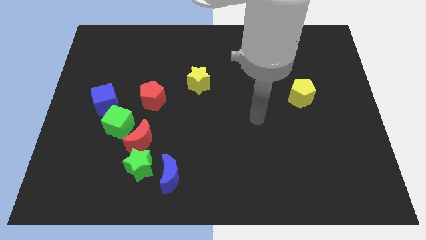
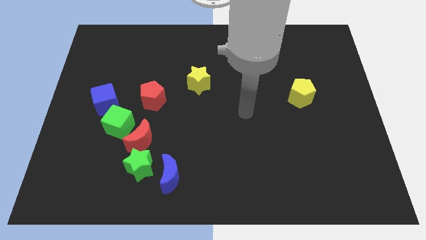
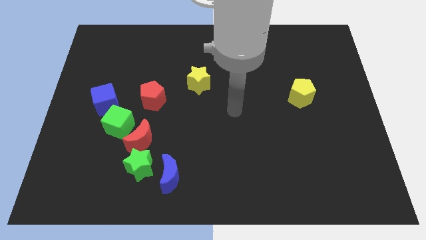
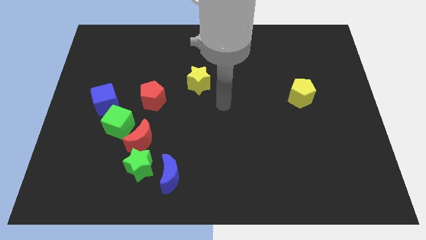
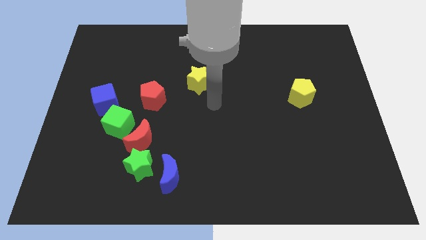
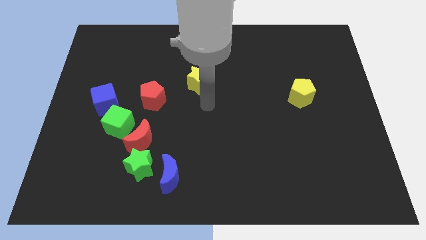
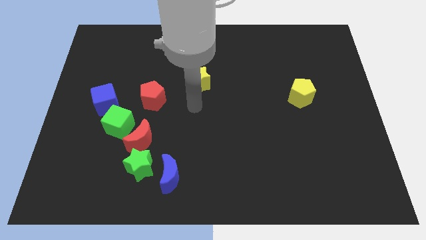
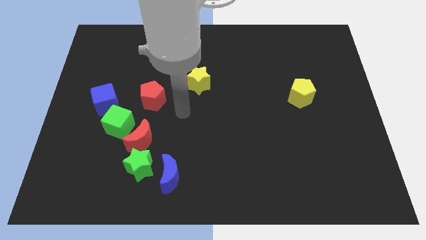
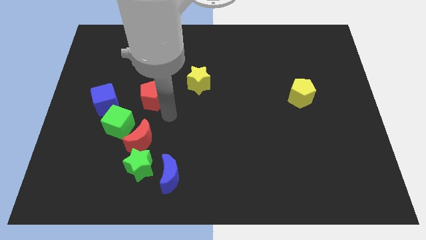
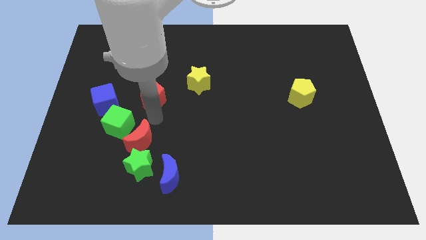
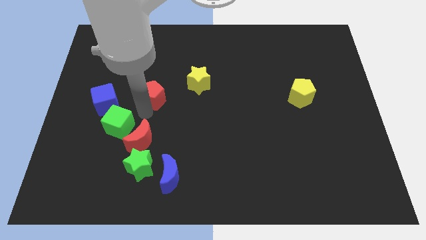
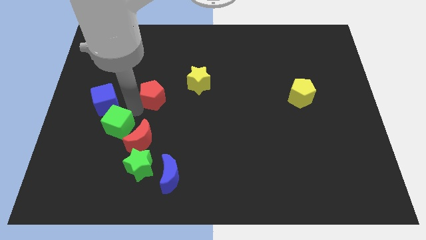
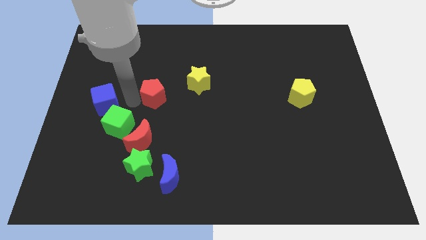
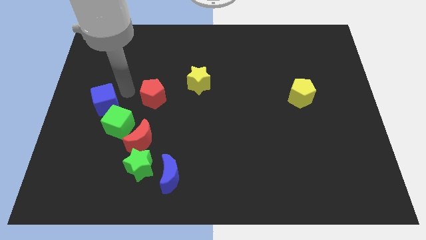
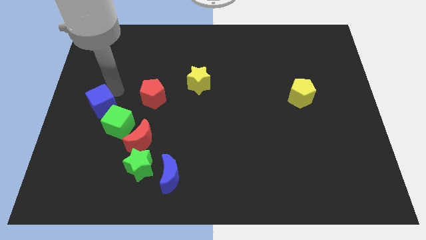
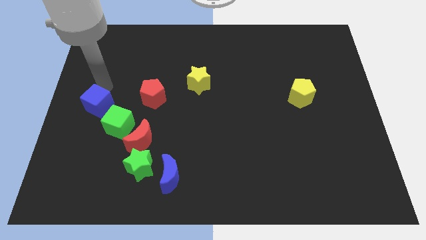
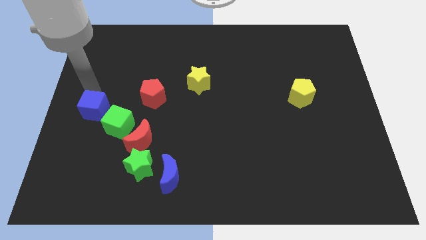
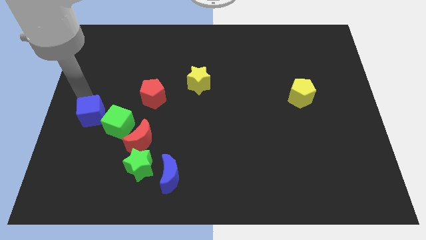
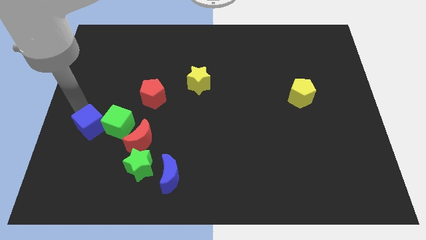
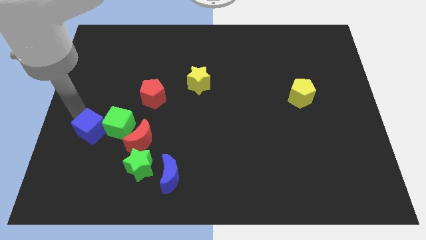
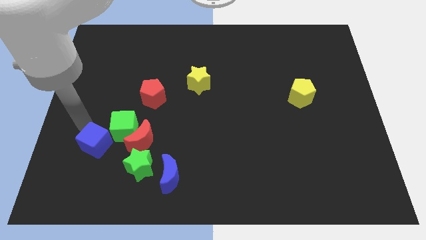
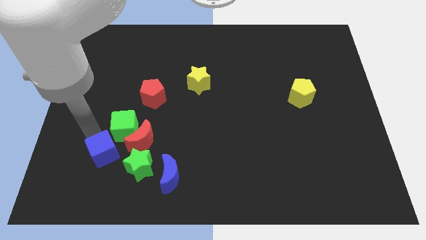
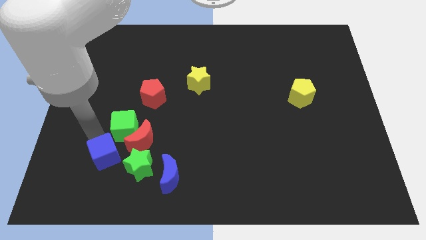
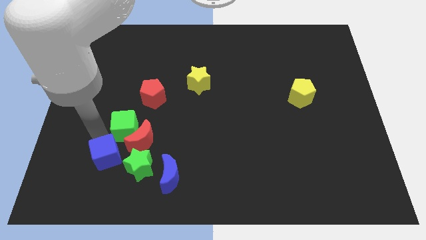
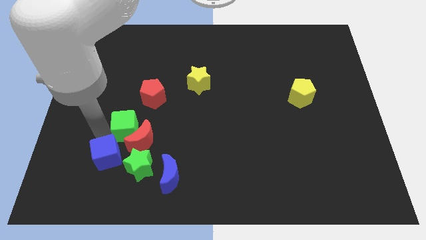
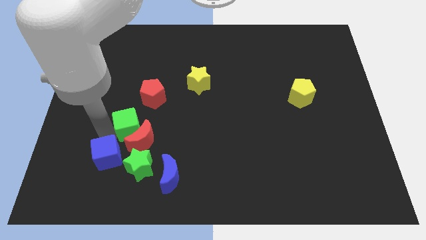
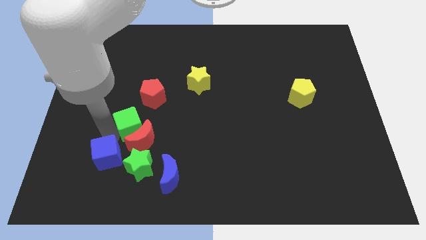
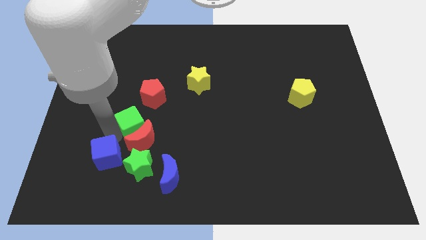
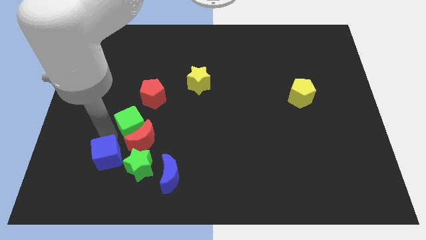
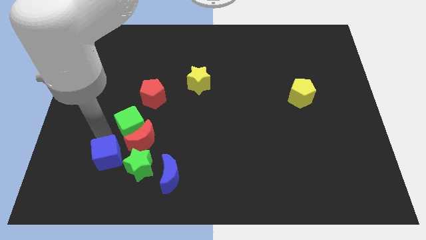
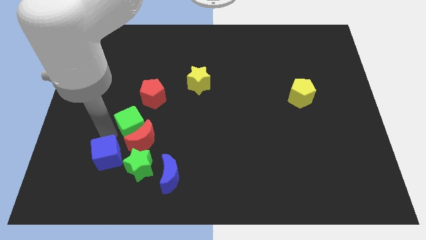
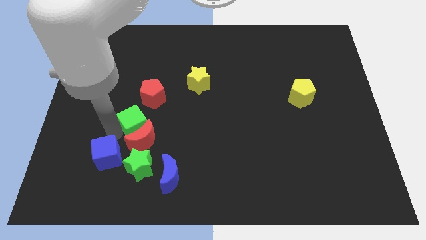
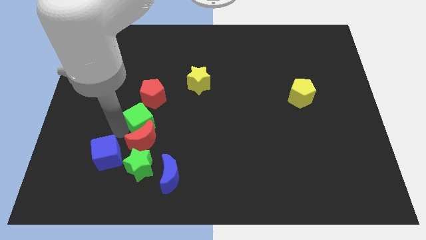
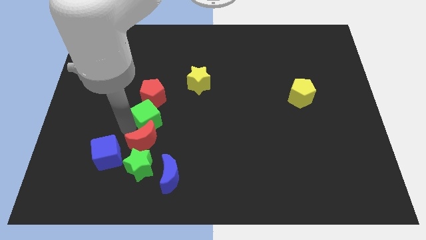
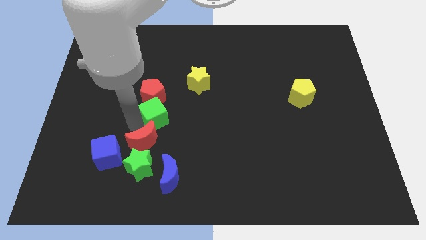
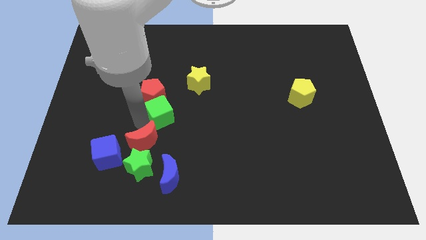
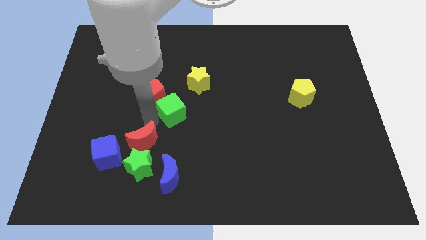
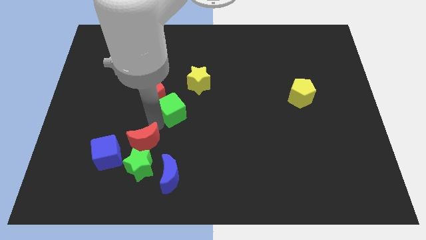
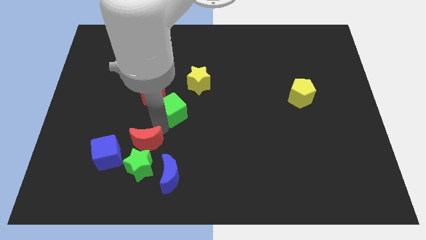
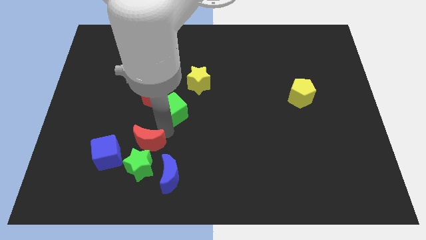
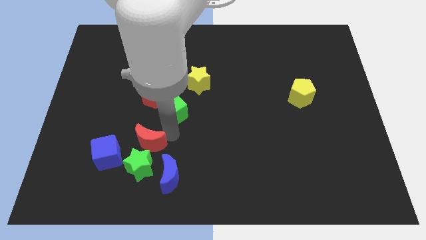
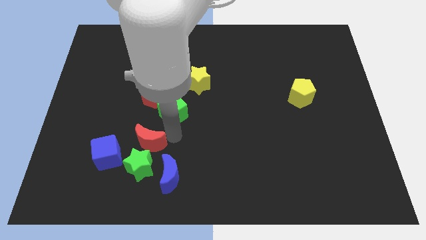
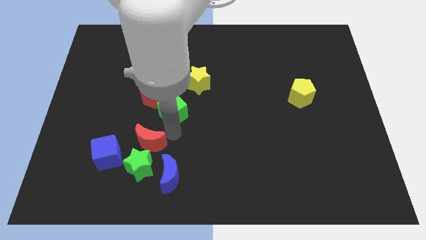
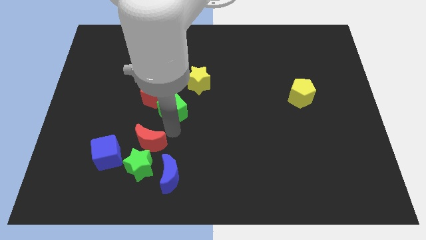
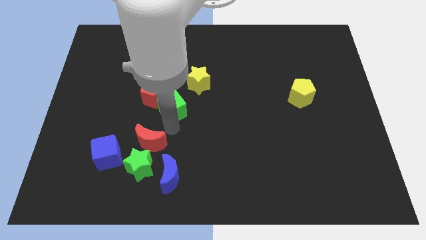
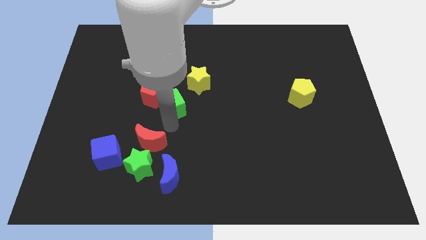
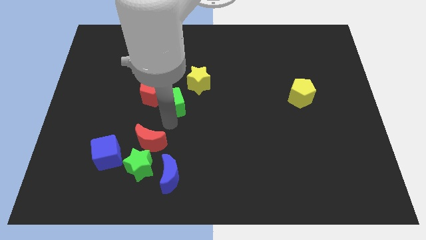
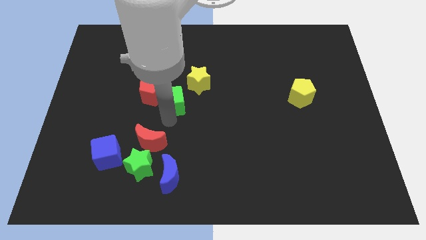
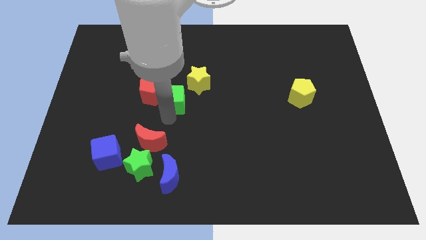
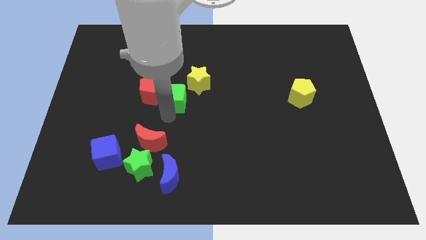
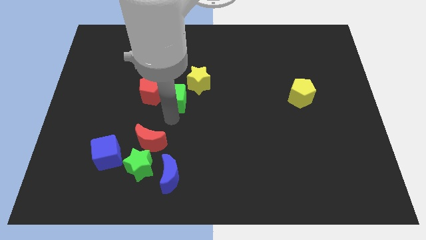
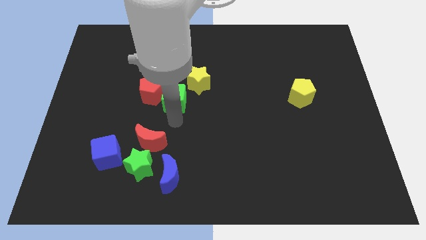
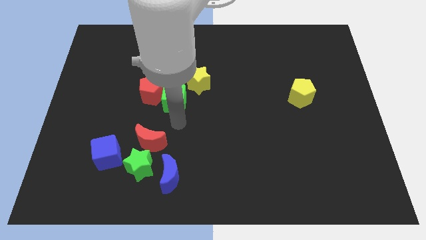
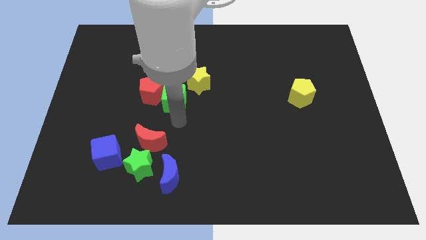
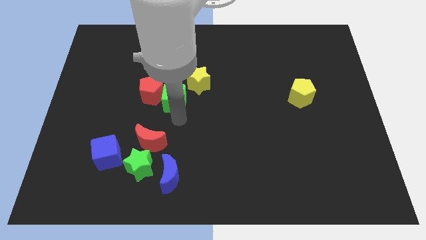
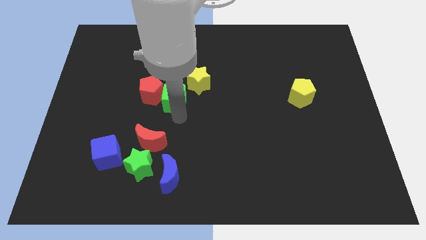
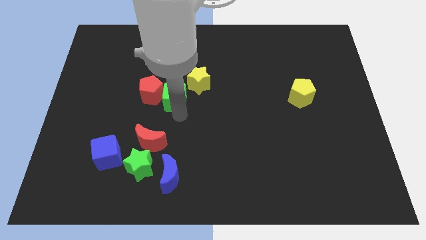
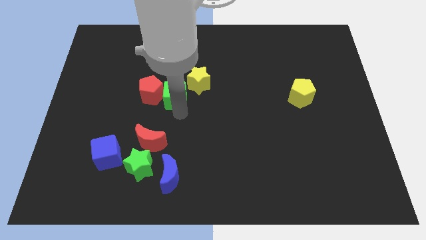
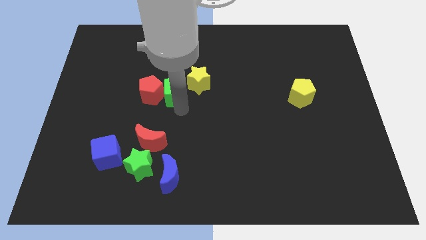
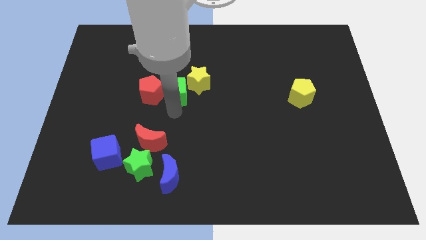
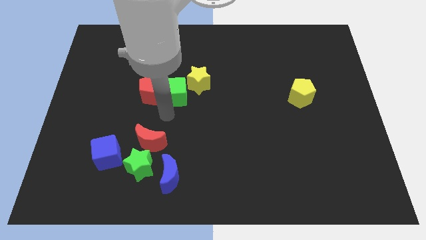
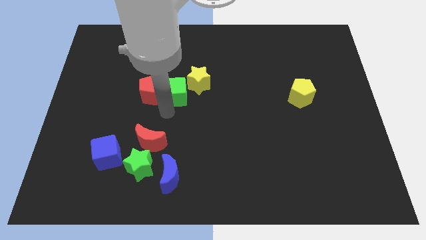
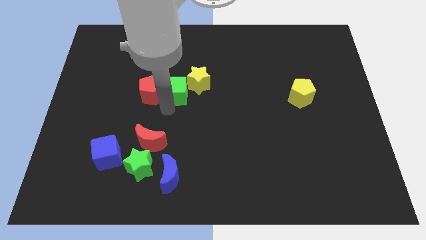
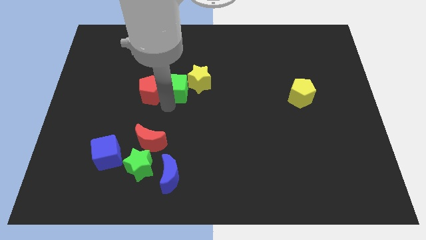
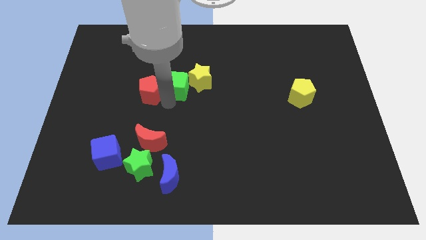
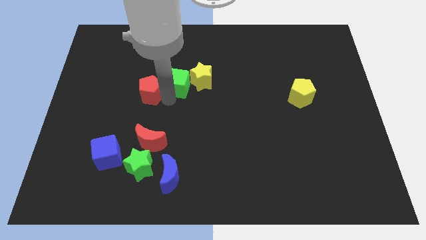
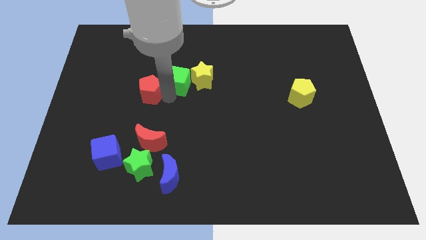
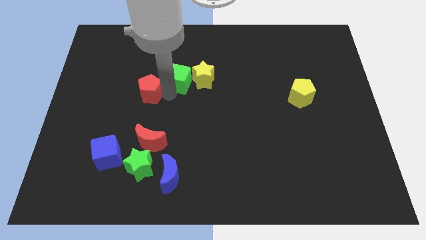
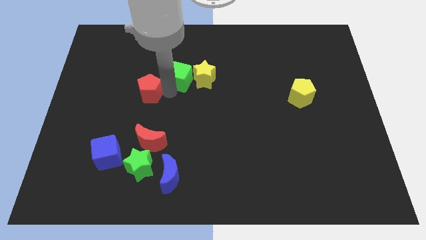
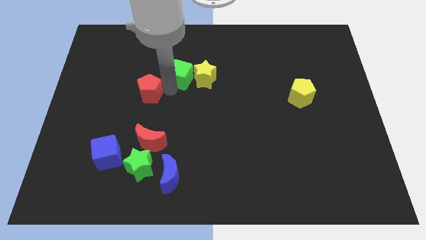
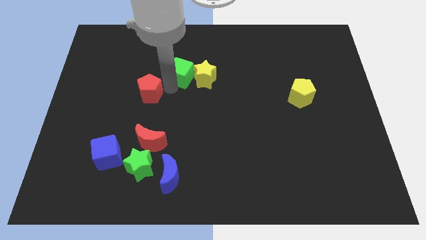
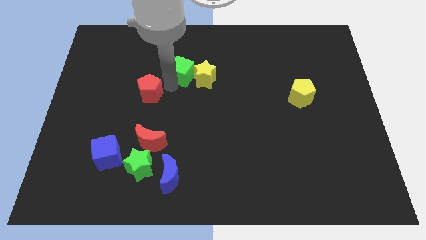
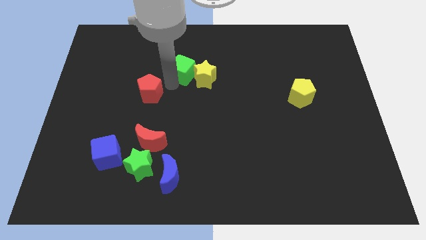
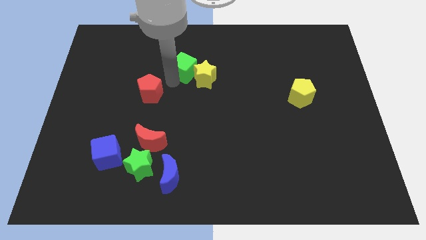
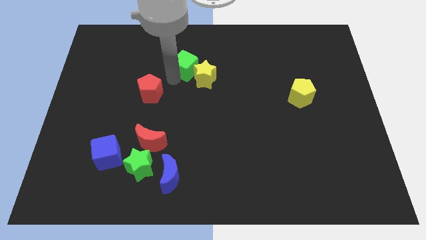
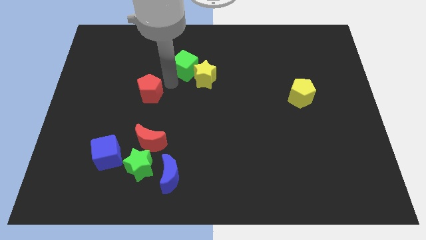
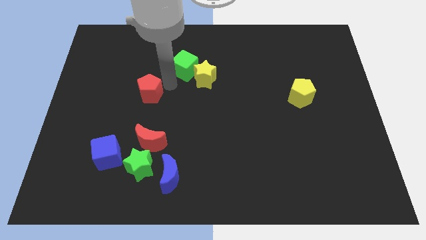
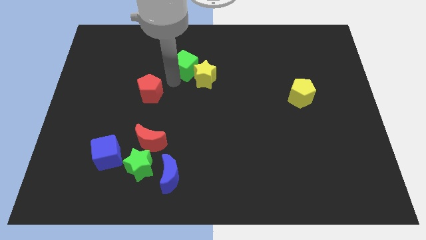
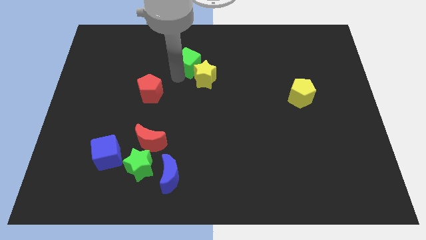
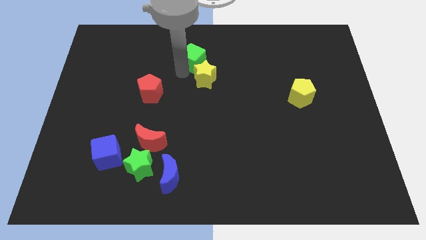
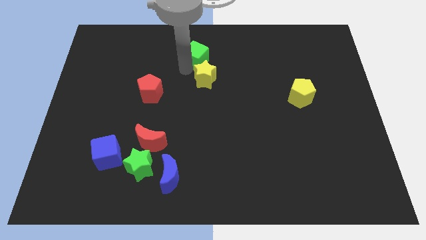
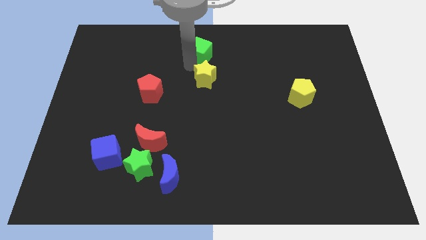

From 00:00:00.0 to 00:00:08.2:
slide the green cube to the top side
